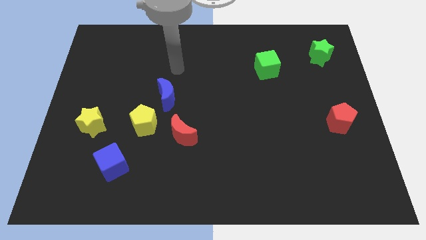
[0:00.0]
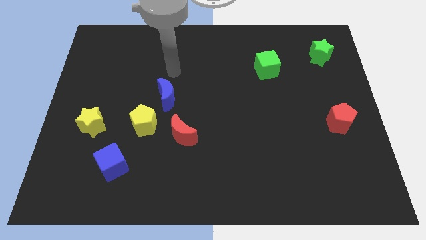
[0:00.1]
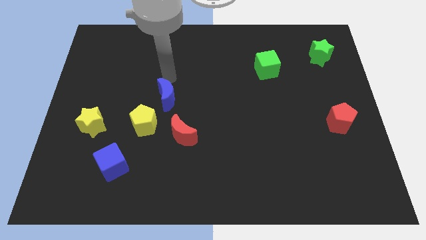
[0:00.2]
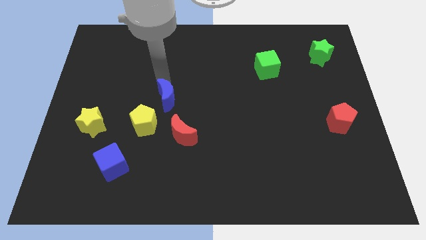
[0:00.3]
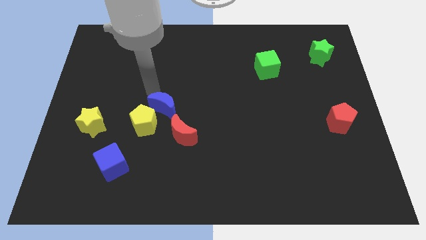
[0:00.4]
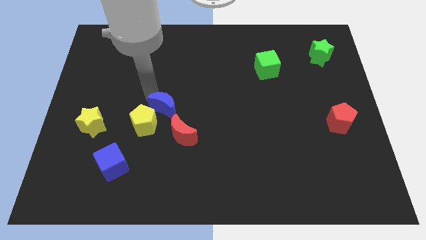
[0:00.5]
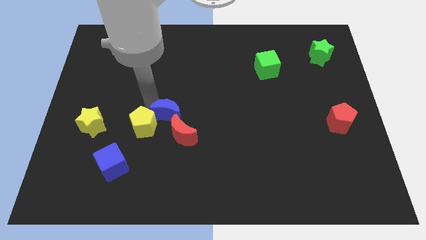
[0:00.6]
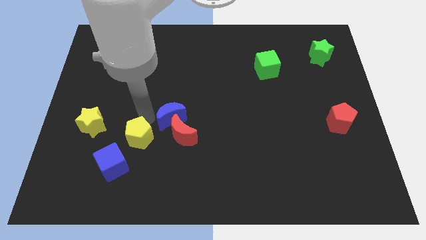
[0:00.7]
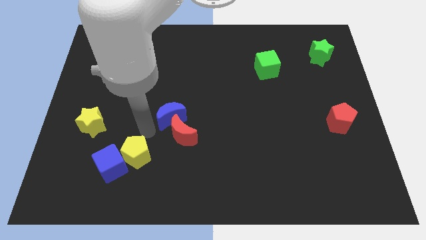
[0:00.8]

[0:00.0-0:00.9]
separate the blue moon from the yellow pentagon

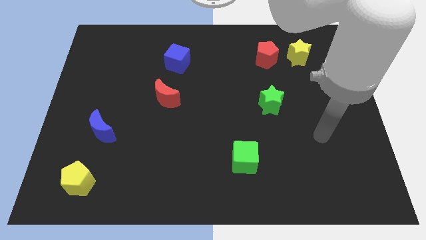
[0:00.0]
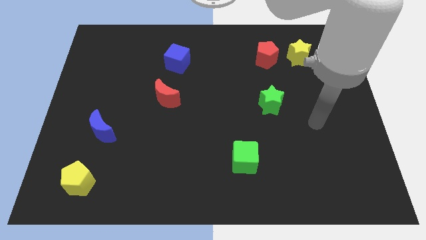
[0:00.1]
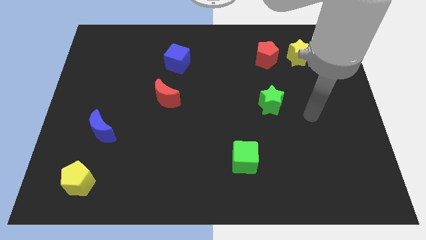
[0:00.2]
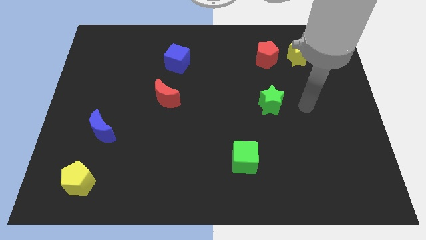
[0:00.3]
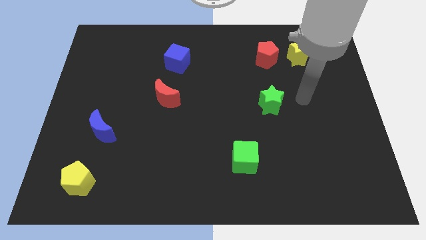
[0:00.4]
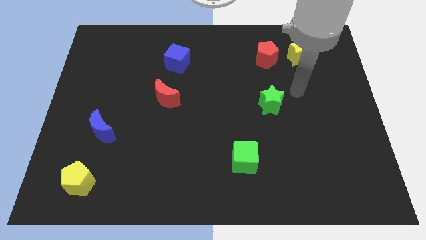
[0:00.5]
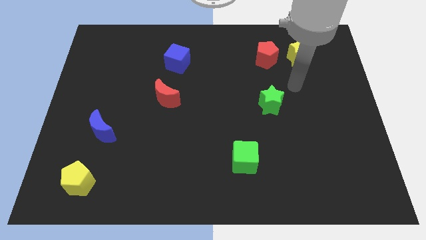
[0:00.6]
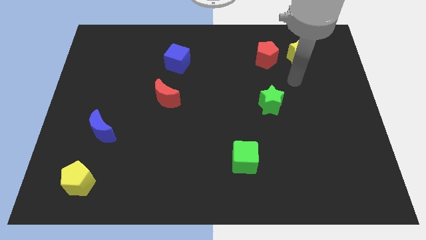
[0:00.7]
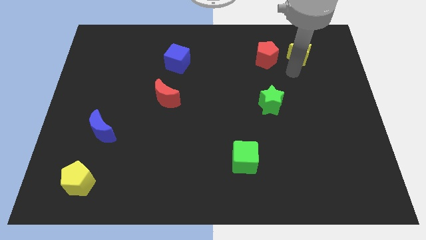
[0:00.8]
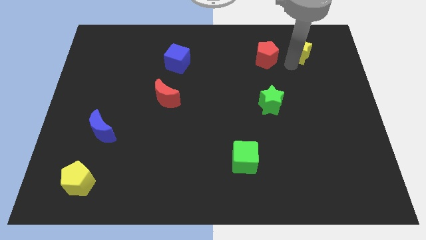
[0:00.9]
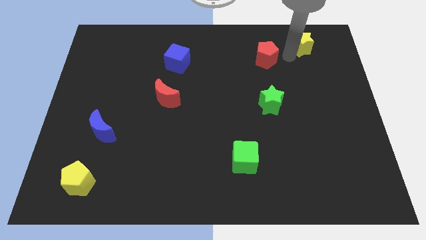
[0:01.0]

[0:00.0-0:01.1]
pull the red pentagon apart from the yellow star

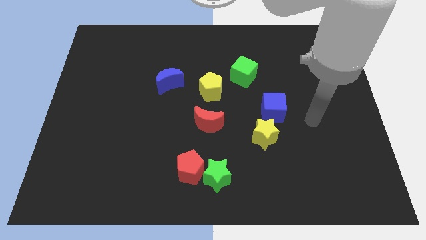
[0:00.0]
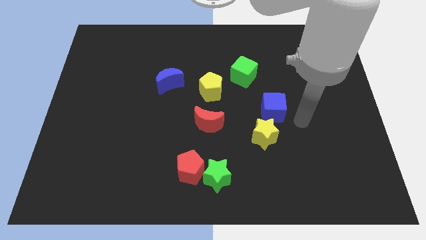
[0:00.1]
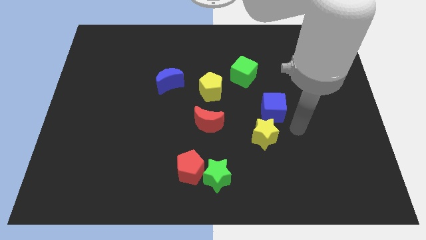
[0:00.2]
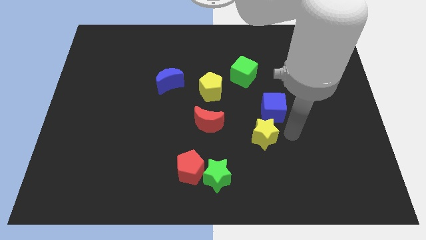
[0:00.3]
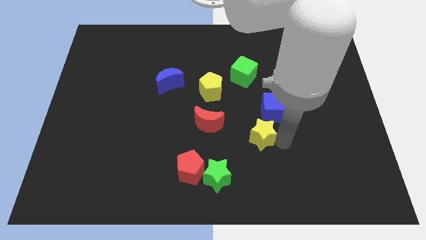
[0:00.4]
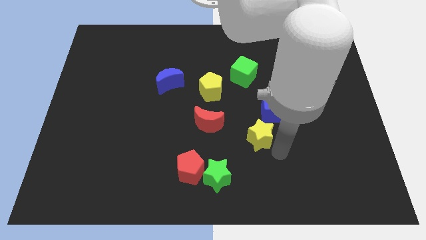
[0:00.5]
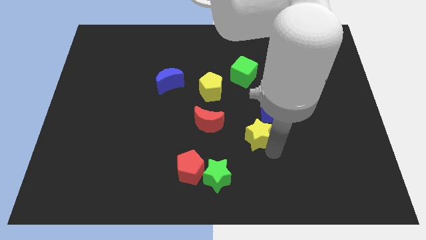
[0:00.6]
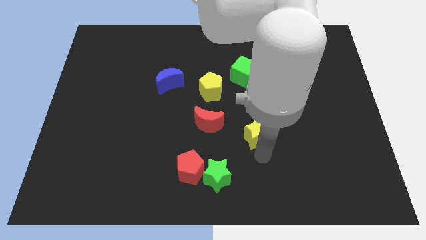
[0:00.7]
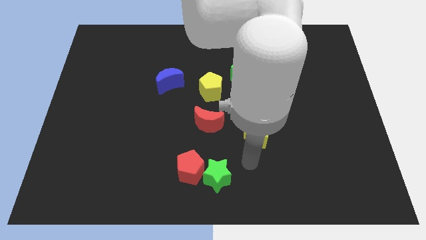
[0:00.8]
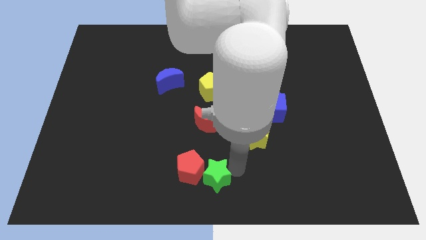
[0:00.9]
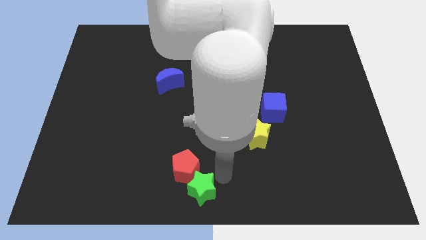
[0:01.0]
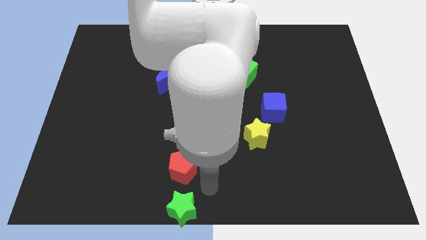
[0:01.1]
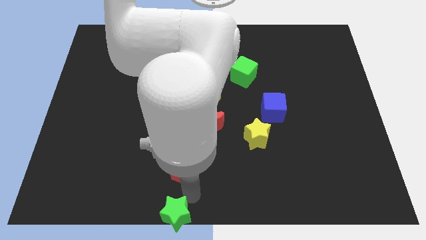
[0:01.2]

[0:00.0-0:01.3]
move the red pentagon away from the green star

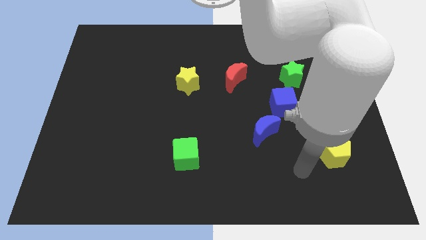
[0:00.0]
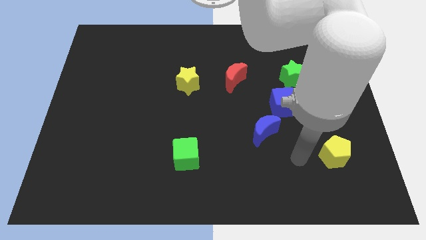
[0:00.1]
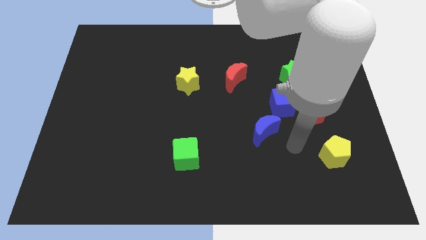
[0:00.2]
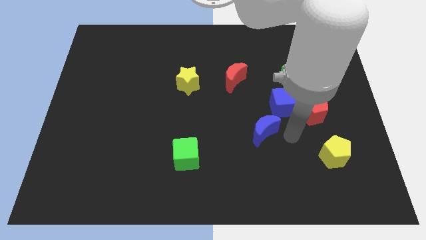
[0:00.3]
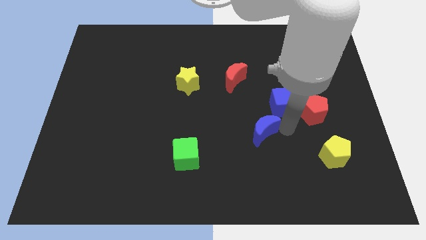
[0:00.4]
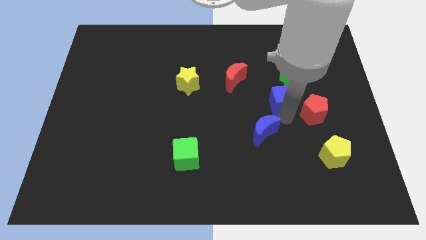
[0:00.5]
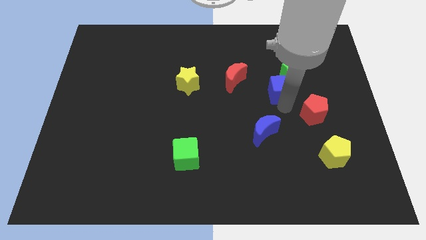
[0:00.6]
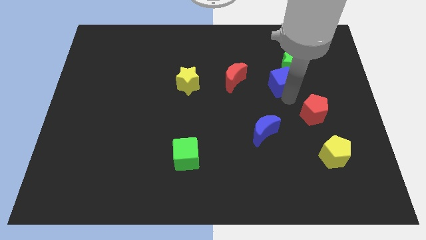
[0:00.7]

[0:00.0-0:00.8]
pull the red pentagon apart from the blue cube

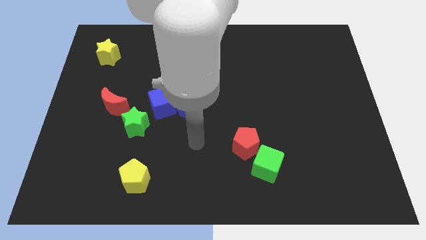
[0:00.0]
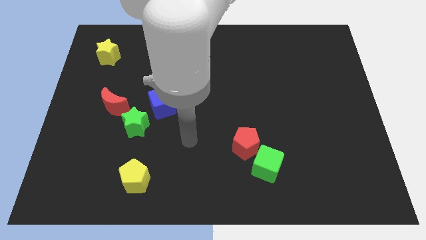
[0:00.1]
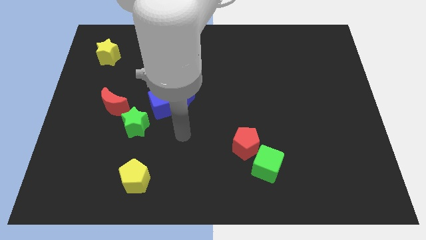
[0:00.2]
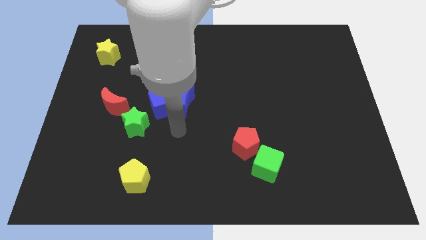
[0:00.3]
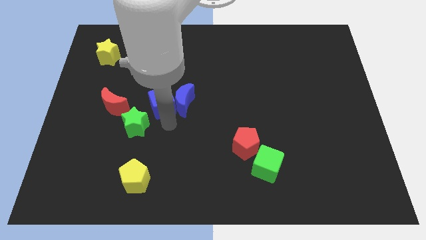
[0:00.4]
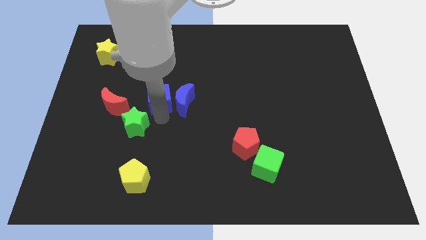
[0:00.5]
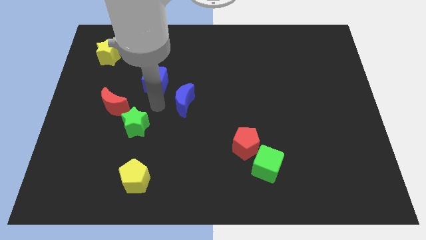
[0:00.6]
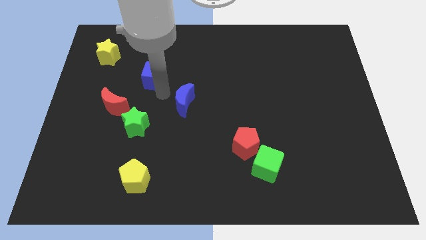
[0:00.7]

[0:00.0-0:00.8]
pull the blue moon apart from the blue cube

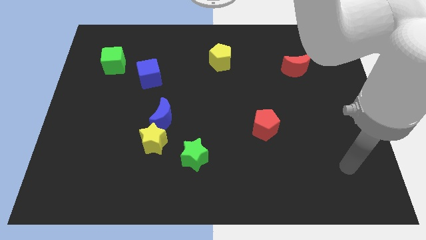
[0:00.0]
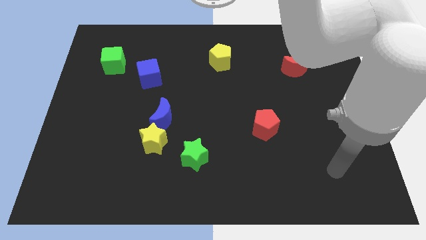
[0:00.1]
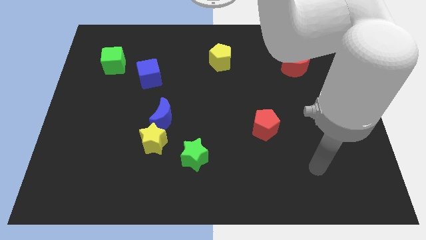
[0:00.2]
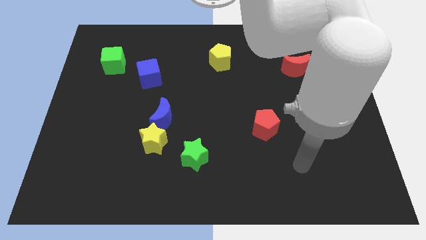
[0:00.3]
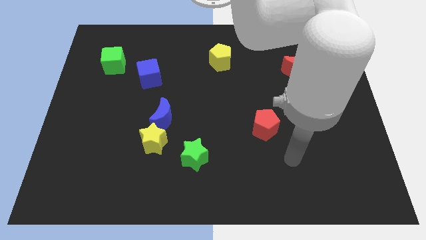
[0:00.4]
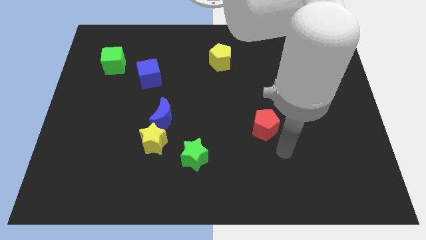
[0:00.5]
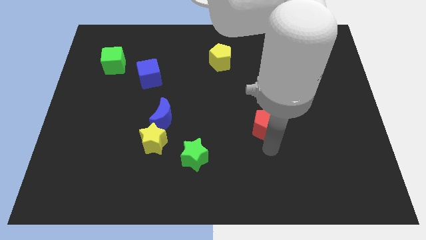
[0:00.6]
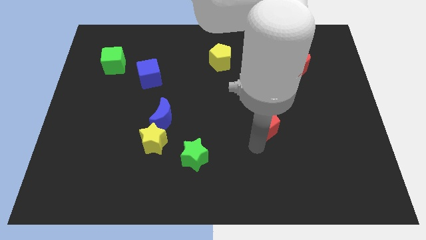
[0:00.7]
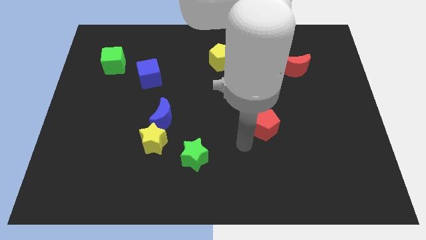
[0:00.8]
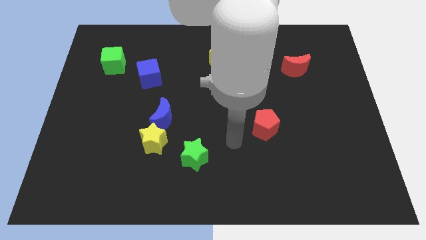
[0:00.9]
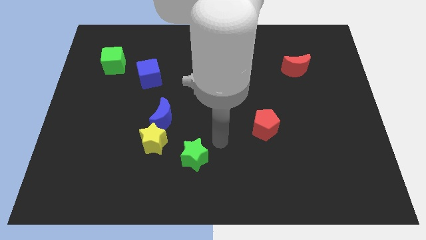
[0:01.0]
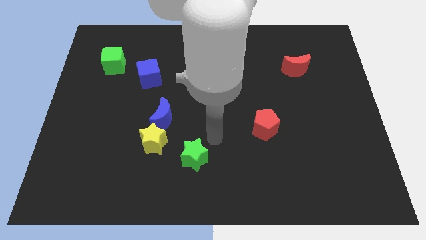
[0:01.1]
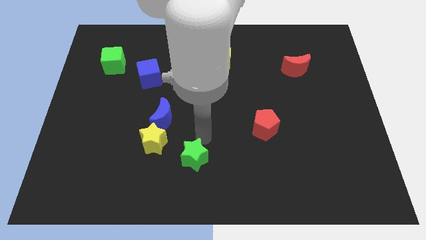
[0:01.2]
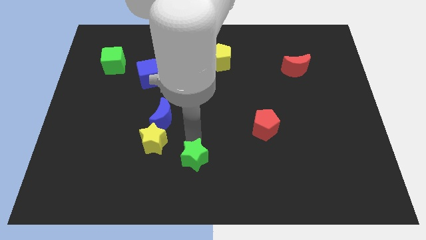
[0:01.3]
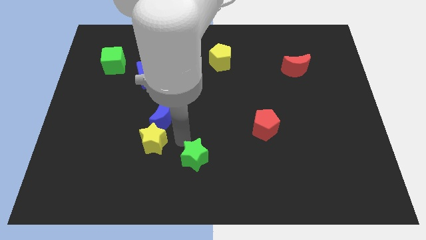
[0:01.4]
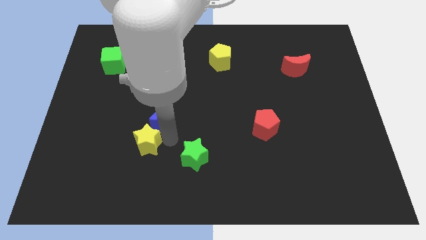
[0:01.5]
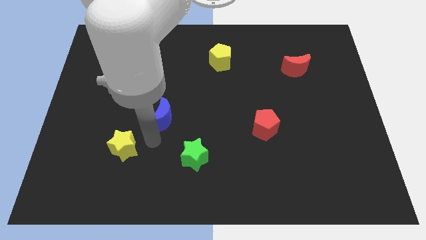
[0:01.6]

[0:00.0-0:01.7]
separate the blue moon from the yellow star

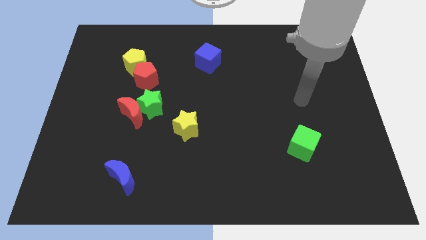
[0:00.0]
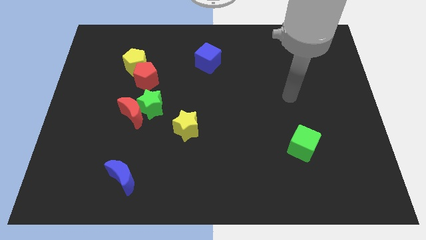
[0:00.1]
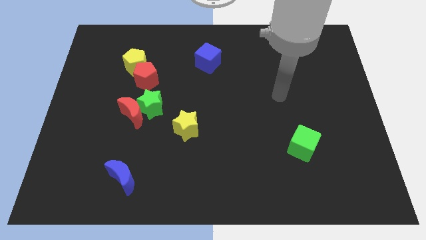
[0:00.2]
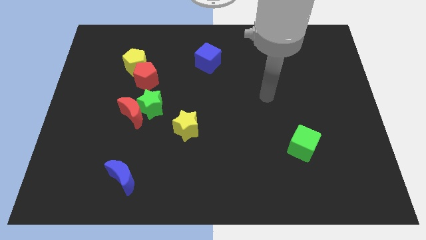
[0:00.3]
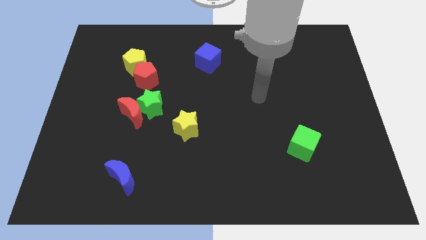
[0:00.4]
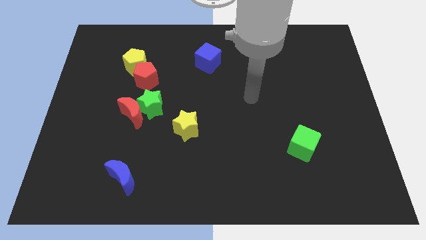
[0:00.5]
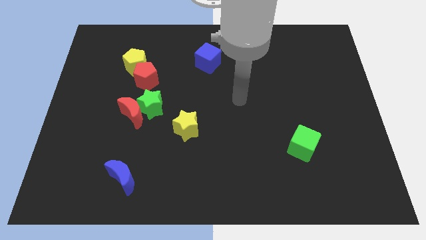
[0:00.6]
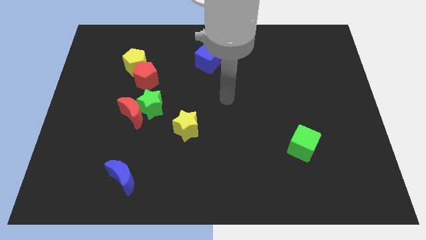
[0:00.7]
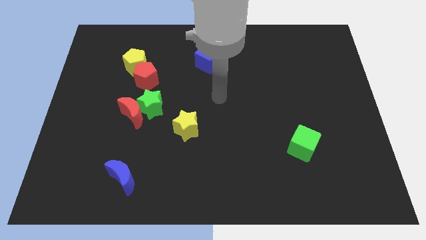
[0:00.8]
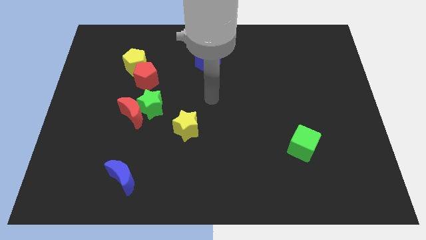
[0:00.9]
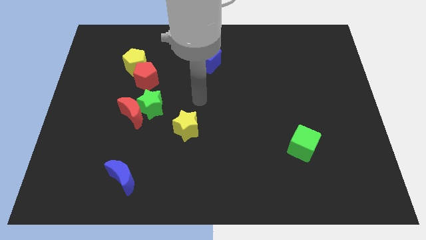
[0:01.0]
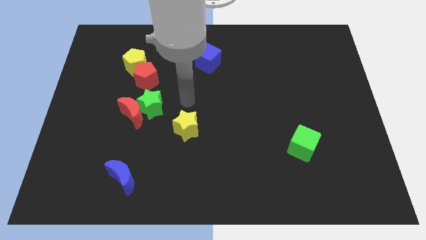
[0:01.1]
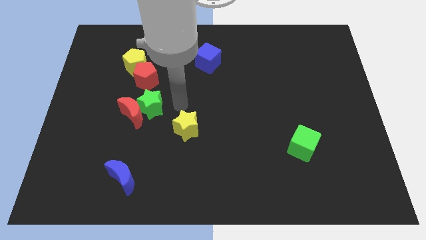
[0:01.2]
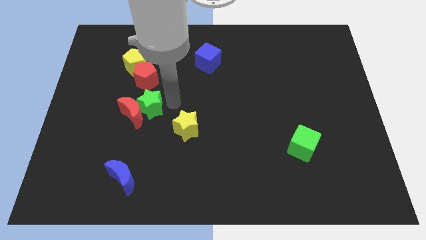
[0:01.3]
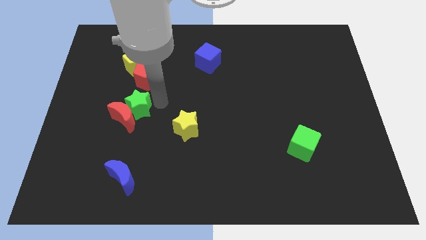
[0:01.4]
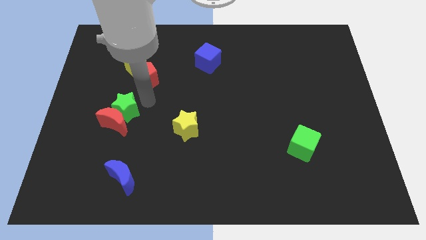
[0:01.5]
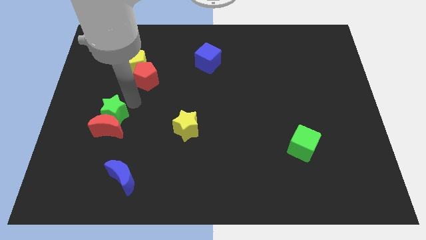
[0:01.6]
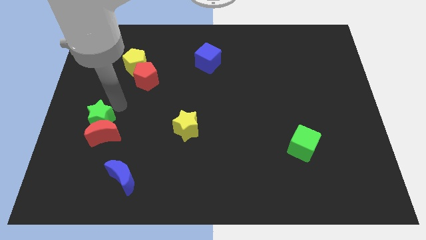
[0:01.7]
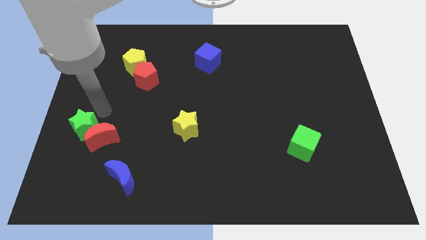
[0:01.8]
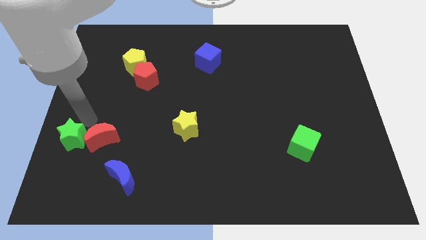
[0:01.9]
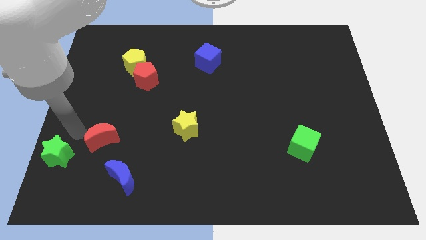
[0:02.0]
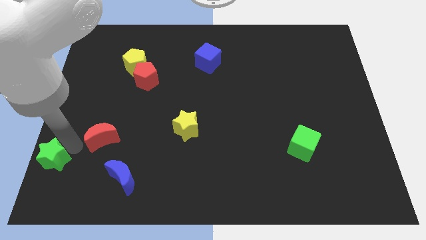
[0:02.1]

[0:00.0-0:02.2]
pull the red moon apart from the green star

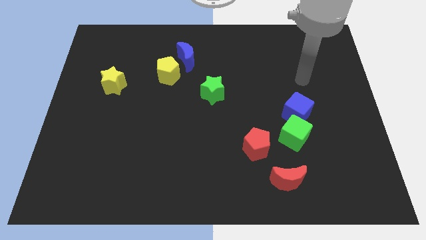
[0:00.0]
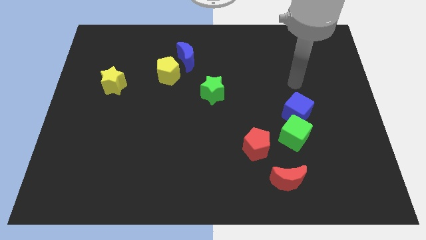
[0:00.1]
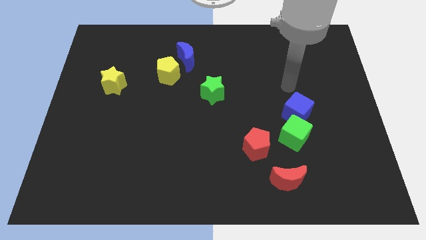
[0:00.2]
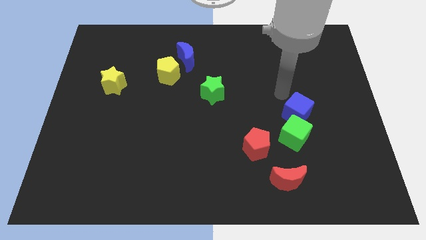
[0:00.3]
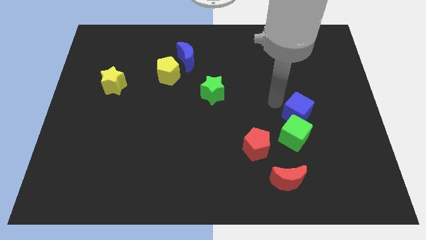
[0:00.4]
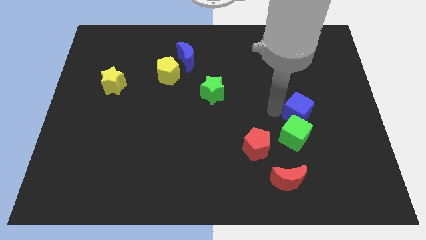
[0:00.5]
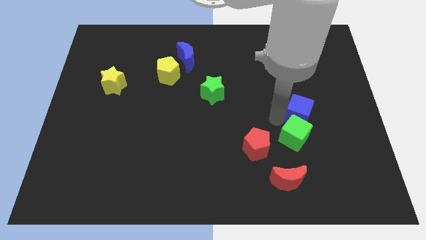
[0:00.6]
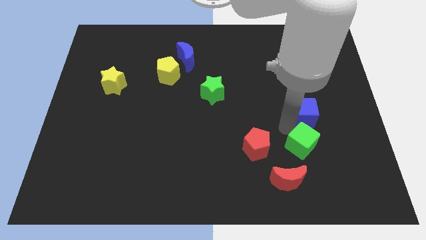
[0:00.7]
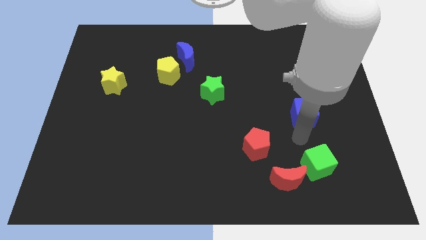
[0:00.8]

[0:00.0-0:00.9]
pull the blue cube apart from the green cube
